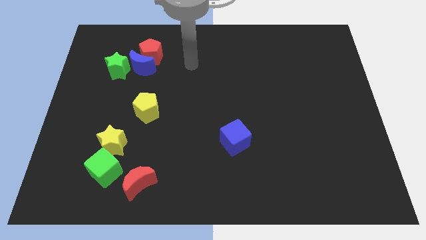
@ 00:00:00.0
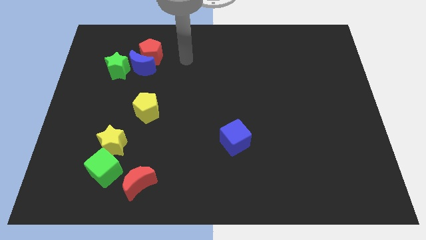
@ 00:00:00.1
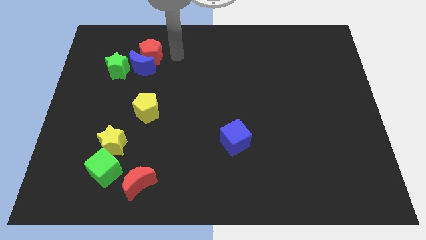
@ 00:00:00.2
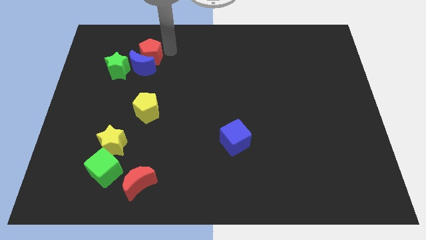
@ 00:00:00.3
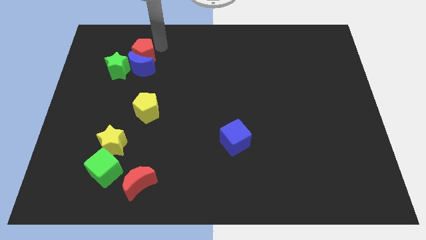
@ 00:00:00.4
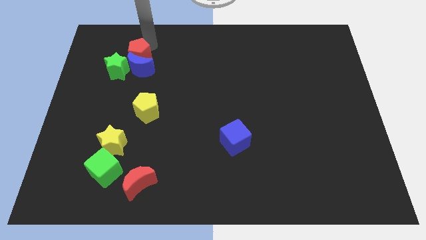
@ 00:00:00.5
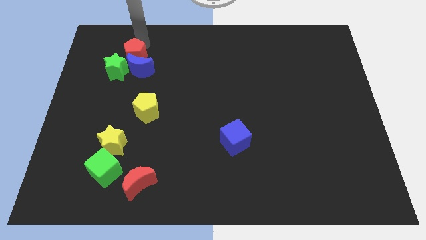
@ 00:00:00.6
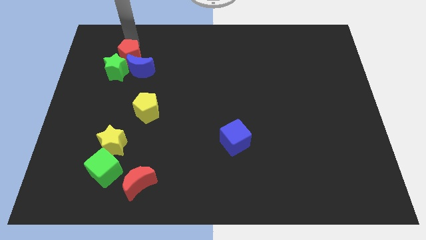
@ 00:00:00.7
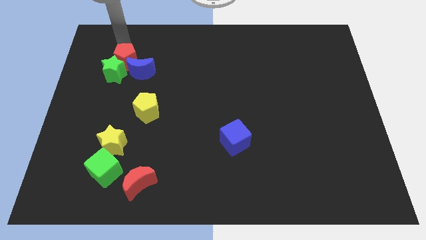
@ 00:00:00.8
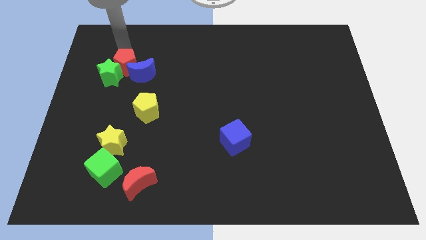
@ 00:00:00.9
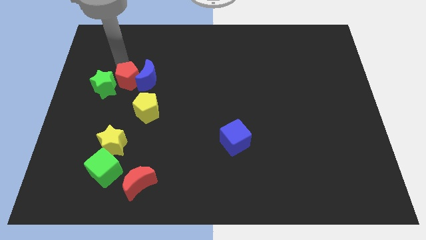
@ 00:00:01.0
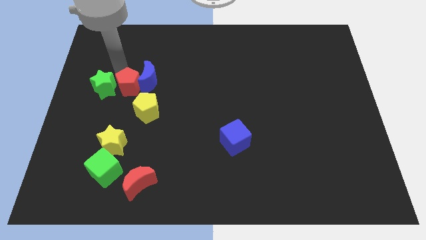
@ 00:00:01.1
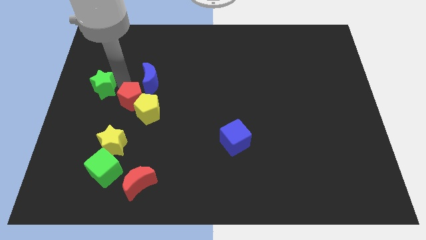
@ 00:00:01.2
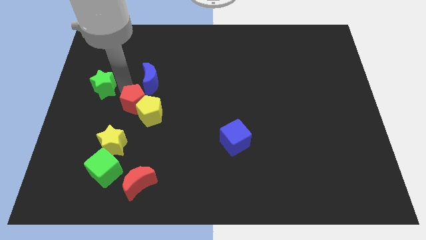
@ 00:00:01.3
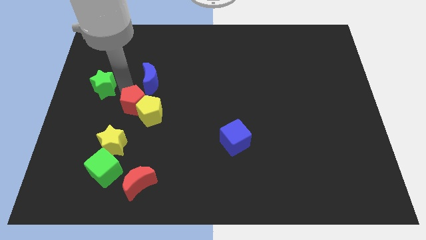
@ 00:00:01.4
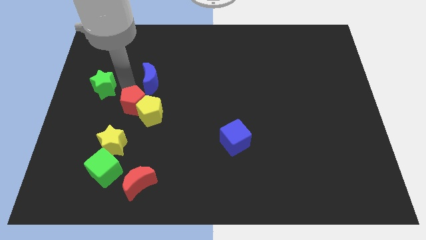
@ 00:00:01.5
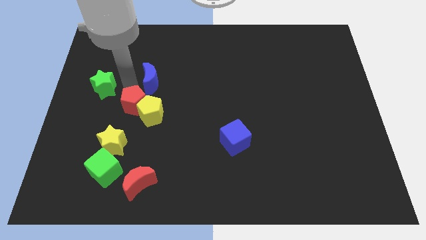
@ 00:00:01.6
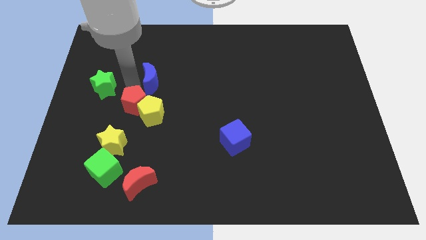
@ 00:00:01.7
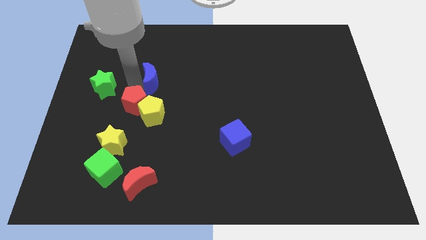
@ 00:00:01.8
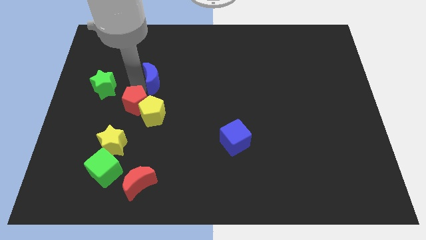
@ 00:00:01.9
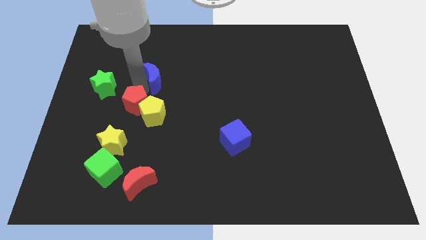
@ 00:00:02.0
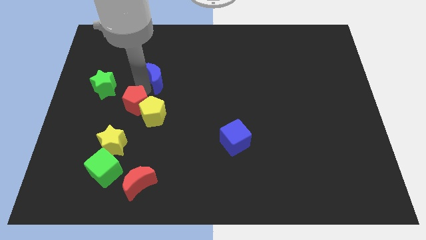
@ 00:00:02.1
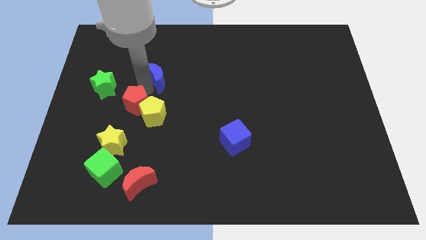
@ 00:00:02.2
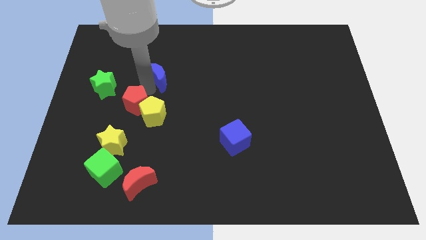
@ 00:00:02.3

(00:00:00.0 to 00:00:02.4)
pull the blue moon apart from the red pentagon and green star

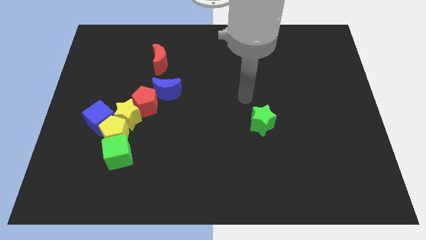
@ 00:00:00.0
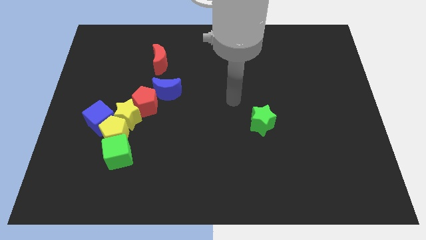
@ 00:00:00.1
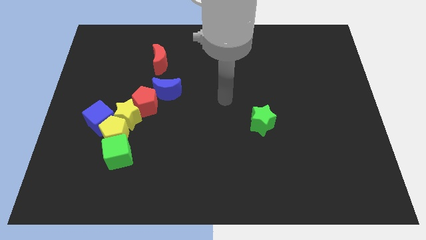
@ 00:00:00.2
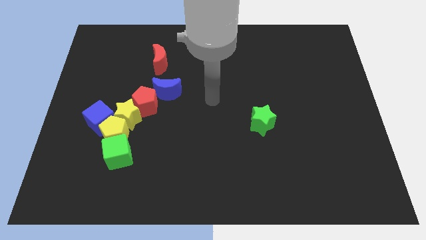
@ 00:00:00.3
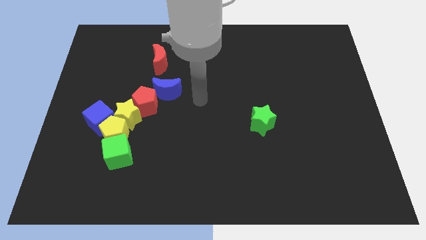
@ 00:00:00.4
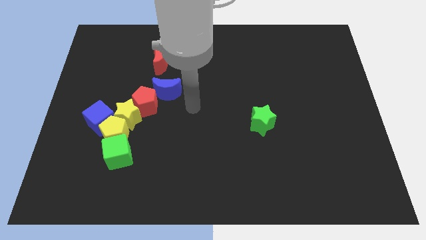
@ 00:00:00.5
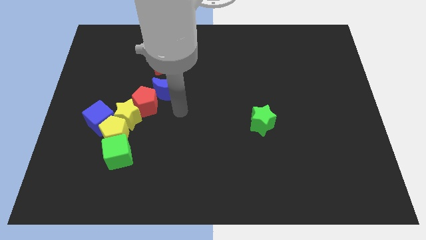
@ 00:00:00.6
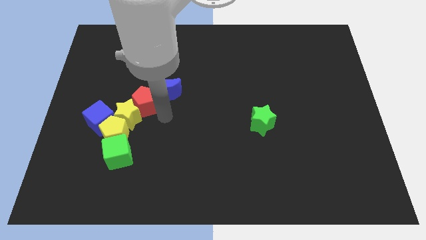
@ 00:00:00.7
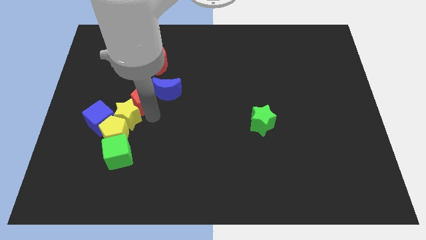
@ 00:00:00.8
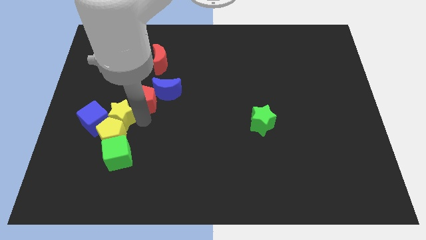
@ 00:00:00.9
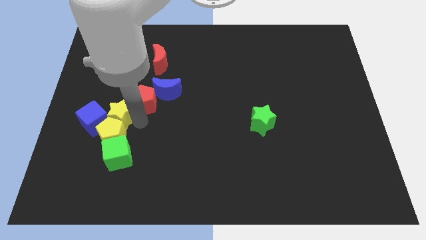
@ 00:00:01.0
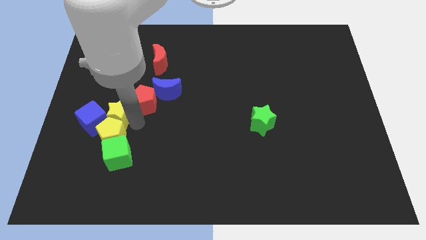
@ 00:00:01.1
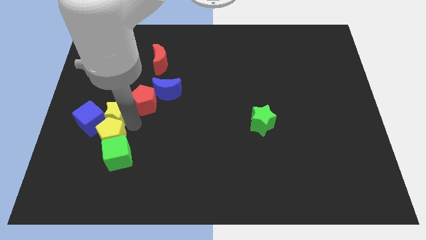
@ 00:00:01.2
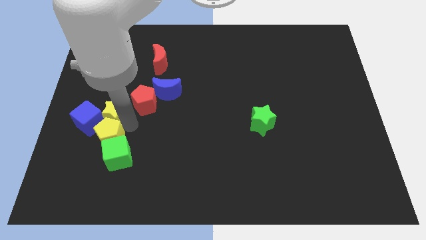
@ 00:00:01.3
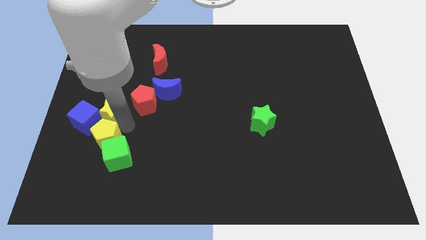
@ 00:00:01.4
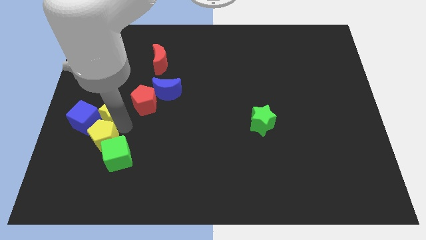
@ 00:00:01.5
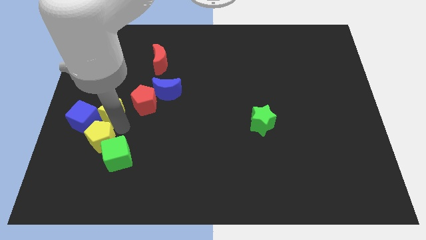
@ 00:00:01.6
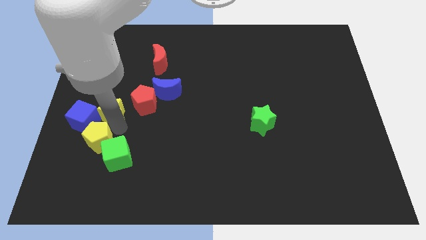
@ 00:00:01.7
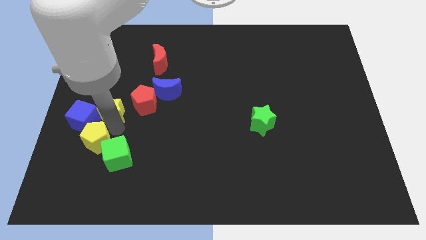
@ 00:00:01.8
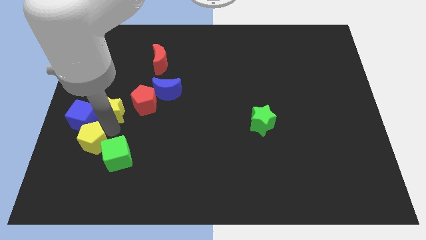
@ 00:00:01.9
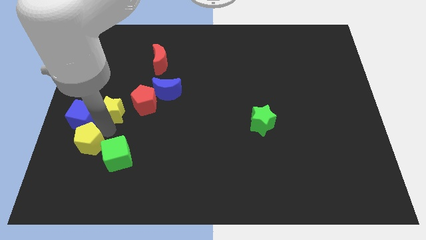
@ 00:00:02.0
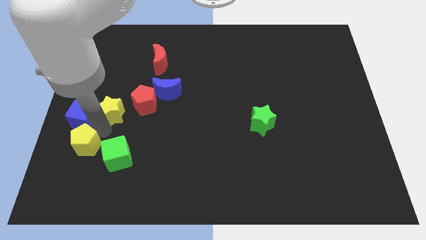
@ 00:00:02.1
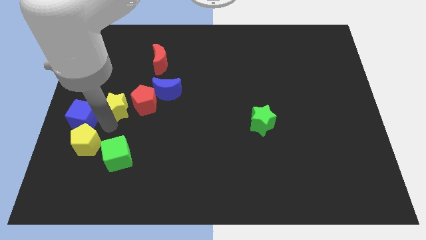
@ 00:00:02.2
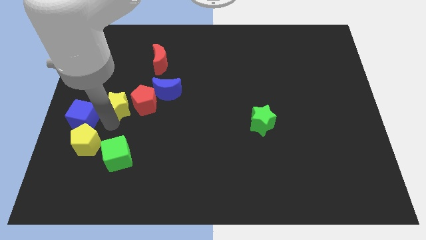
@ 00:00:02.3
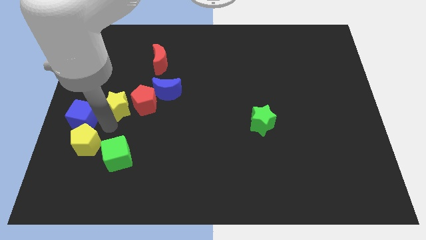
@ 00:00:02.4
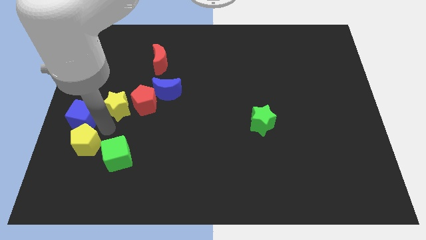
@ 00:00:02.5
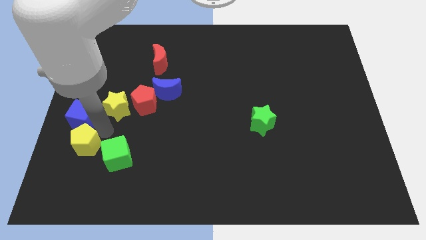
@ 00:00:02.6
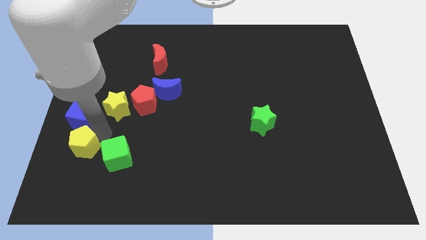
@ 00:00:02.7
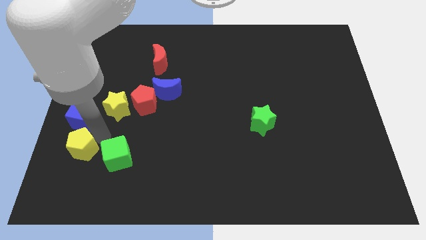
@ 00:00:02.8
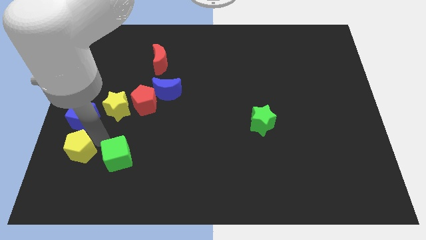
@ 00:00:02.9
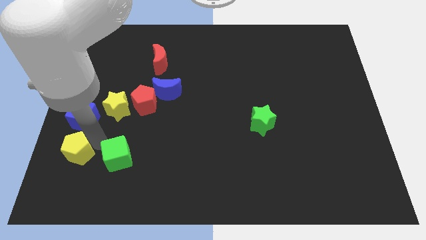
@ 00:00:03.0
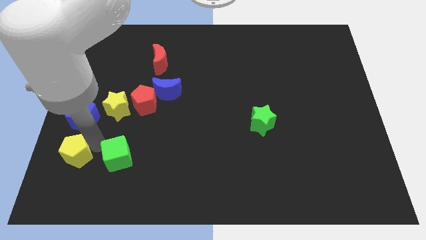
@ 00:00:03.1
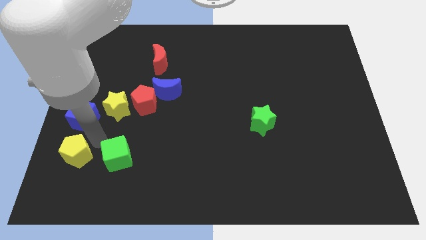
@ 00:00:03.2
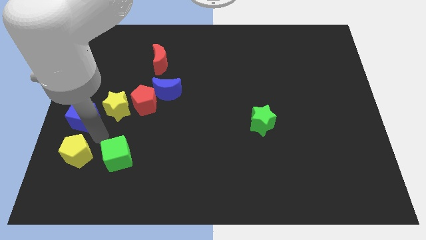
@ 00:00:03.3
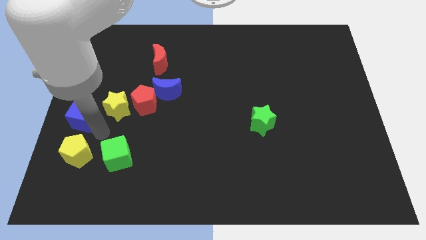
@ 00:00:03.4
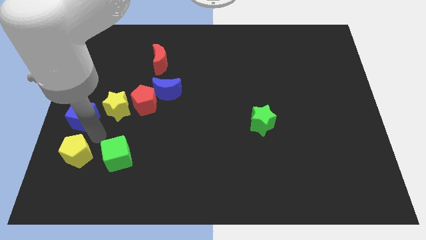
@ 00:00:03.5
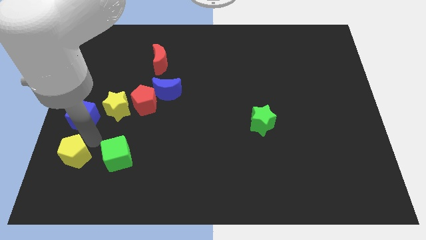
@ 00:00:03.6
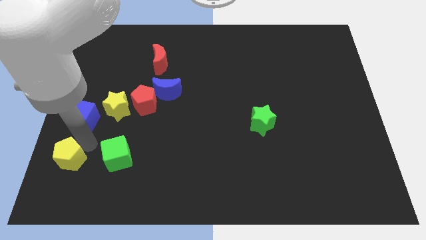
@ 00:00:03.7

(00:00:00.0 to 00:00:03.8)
pull the yellow pentagon apart from the green cube, yellow star, and blue cube

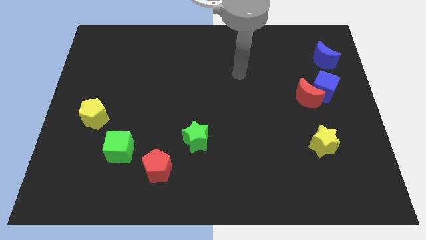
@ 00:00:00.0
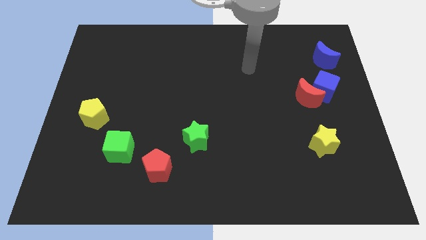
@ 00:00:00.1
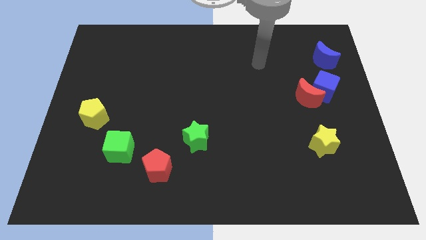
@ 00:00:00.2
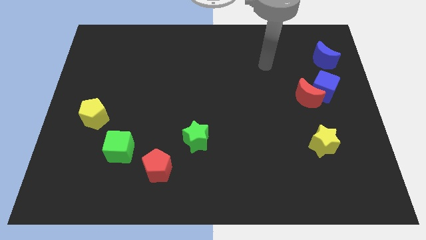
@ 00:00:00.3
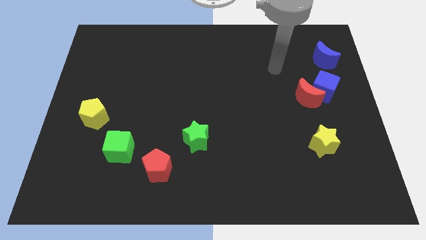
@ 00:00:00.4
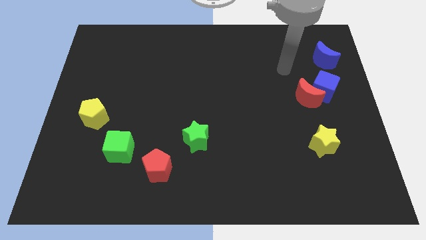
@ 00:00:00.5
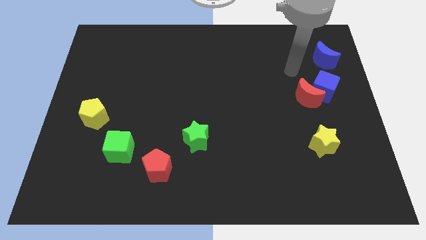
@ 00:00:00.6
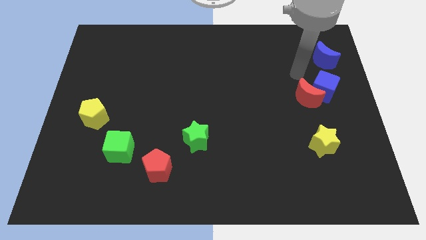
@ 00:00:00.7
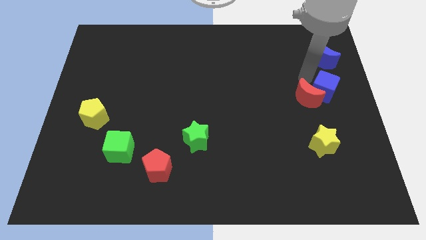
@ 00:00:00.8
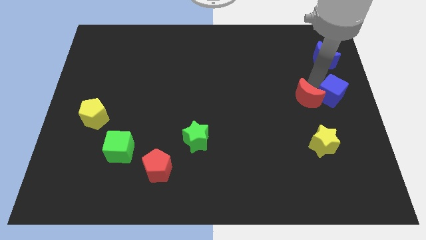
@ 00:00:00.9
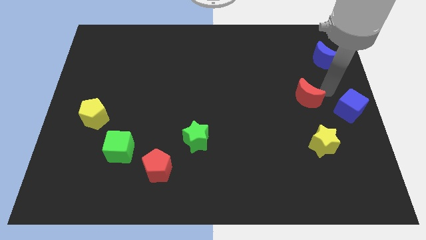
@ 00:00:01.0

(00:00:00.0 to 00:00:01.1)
pull the red moon apart from the blue cube

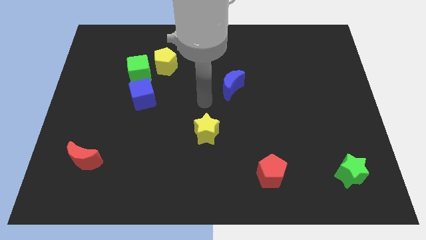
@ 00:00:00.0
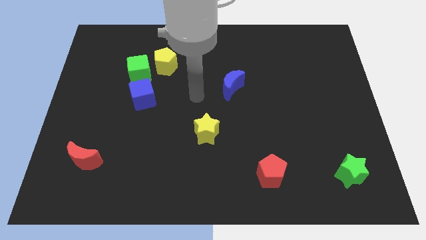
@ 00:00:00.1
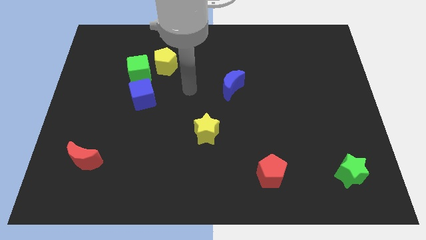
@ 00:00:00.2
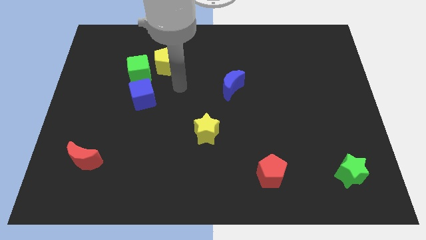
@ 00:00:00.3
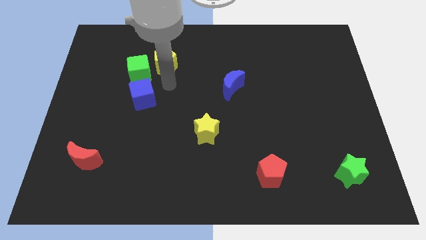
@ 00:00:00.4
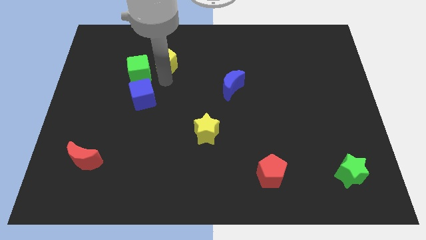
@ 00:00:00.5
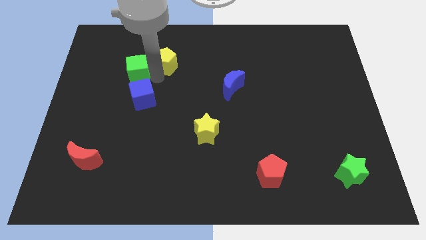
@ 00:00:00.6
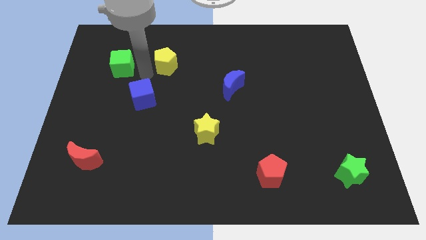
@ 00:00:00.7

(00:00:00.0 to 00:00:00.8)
pull the yellow pentagon apart from the green cube

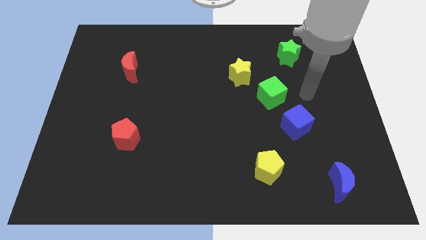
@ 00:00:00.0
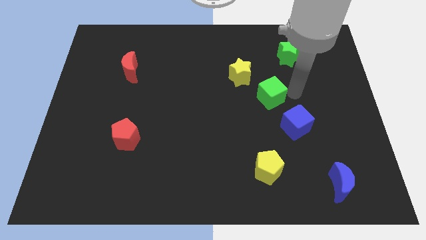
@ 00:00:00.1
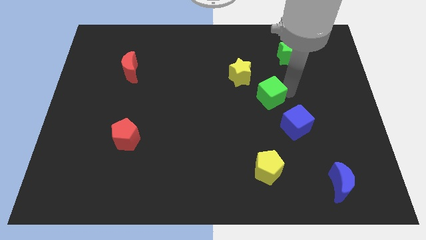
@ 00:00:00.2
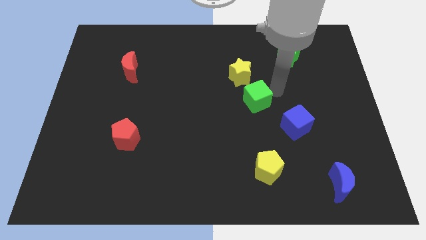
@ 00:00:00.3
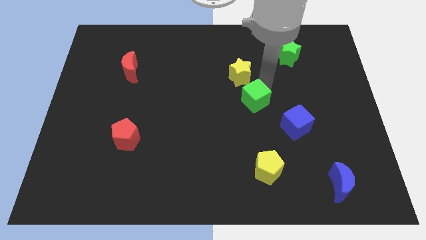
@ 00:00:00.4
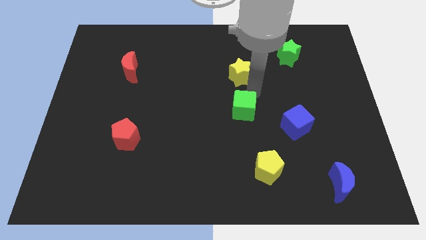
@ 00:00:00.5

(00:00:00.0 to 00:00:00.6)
pull the yellow star apart from the green cube

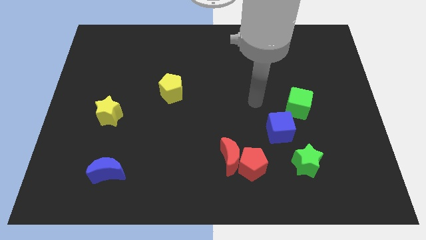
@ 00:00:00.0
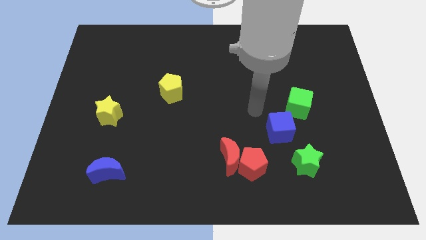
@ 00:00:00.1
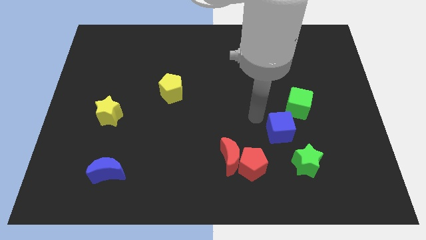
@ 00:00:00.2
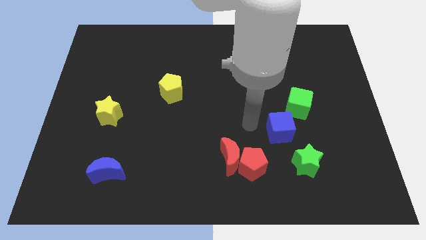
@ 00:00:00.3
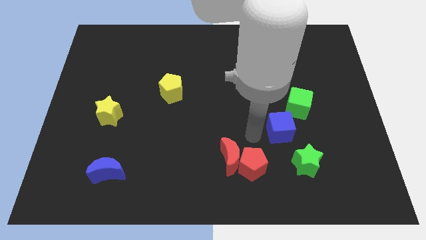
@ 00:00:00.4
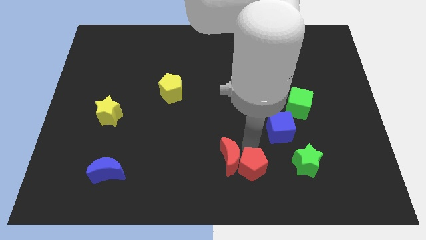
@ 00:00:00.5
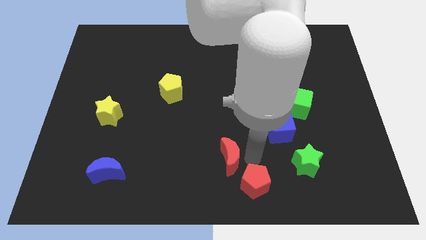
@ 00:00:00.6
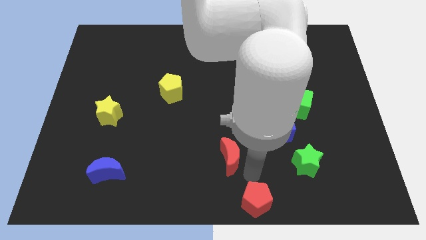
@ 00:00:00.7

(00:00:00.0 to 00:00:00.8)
move the red moon away from the red pentagon
